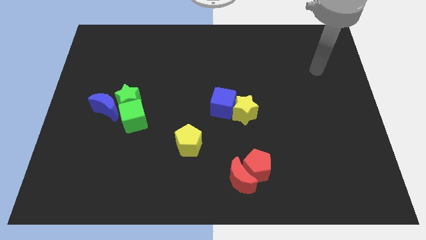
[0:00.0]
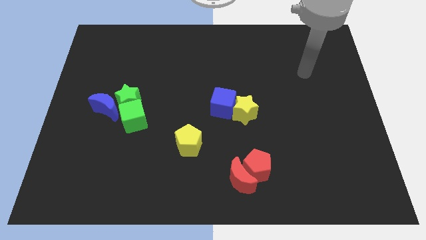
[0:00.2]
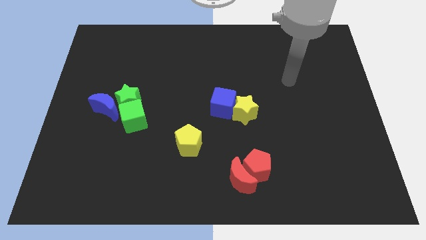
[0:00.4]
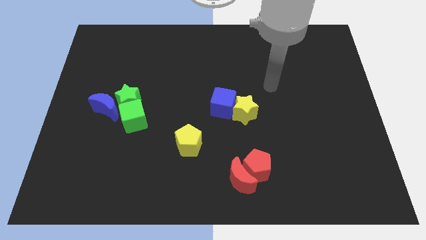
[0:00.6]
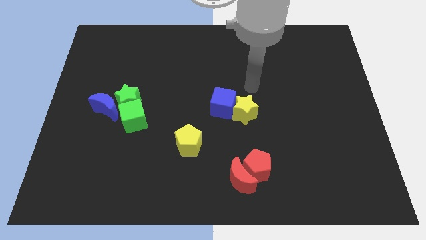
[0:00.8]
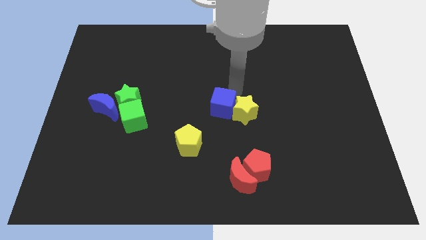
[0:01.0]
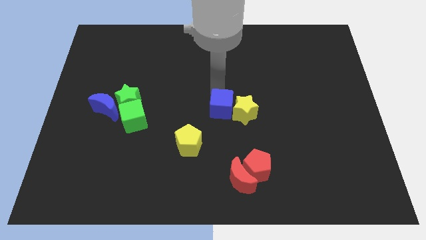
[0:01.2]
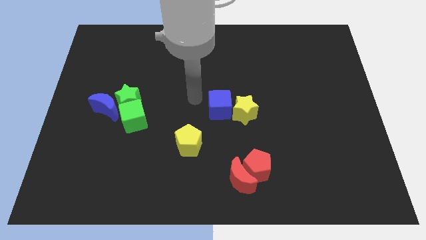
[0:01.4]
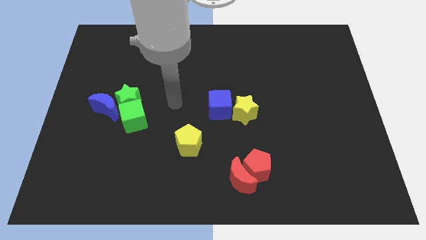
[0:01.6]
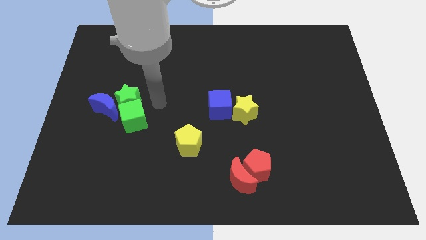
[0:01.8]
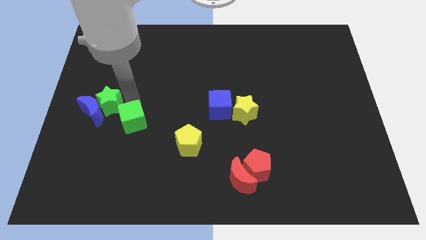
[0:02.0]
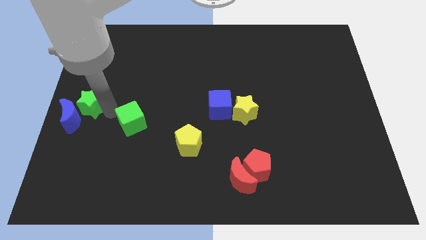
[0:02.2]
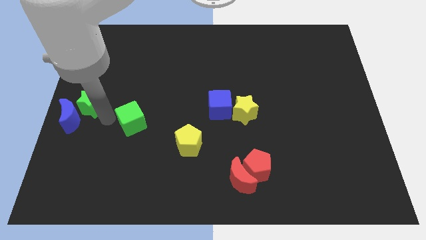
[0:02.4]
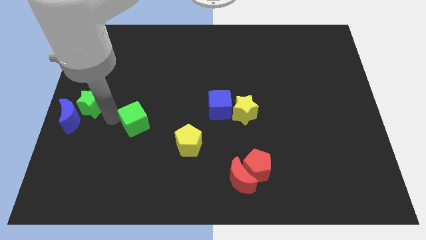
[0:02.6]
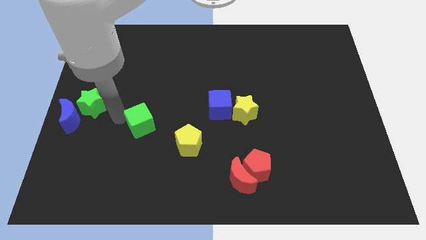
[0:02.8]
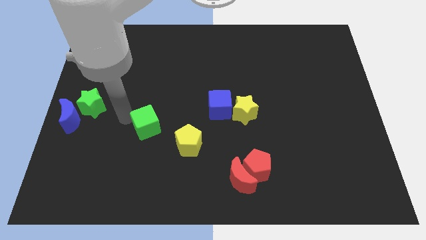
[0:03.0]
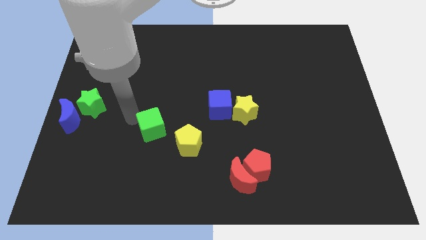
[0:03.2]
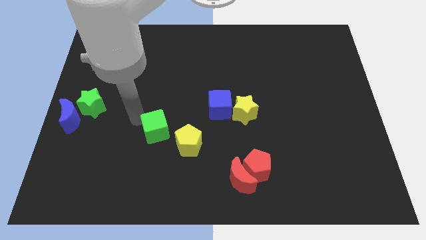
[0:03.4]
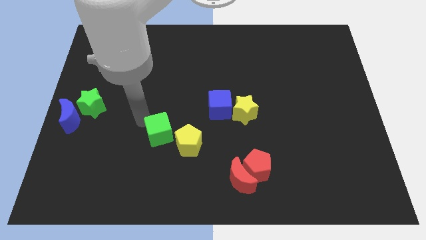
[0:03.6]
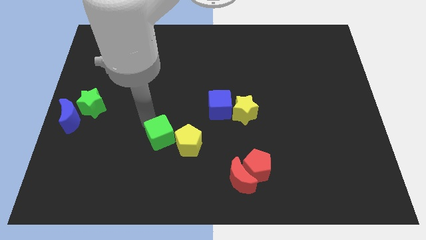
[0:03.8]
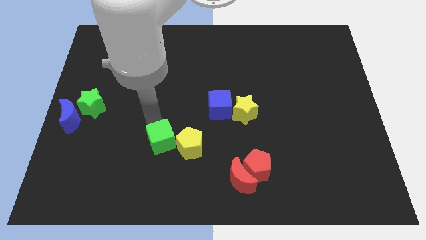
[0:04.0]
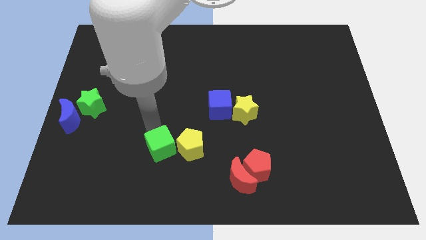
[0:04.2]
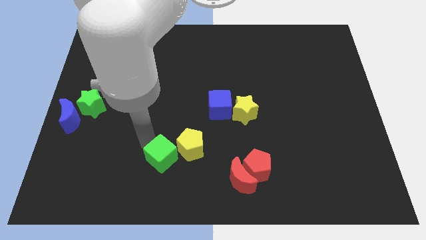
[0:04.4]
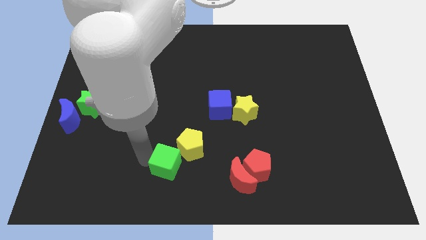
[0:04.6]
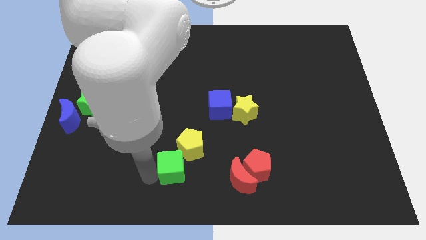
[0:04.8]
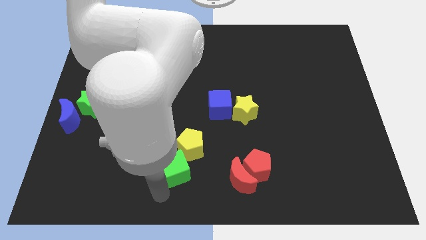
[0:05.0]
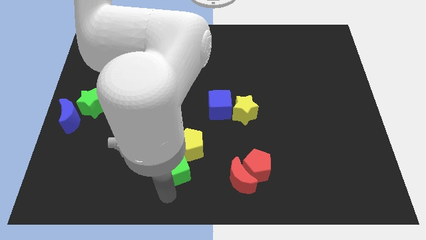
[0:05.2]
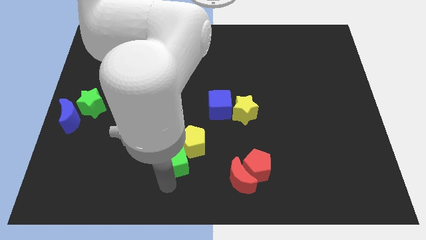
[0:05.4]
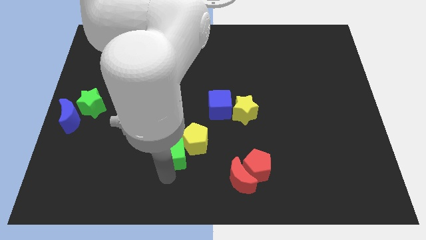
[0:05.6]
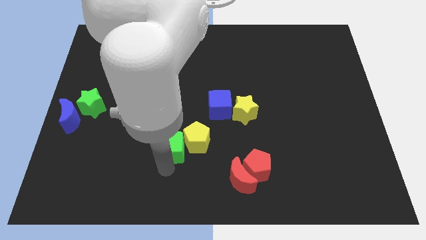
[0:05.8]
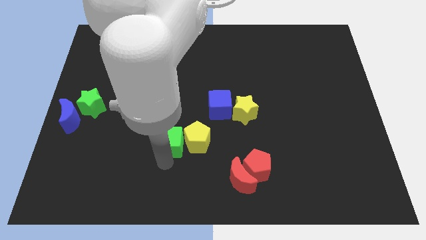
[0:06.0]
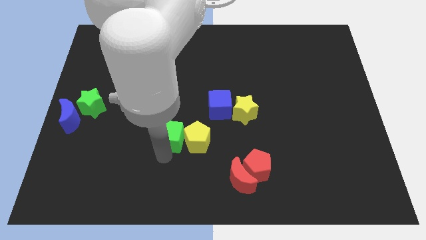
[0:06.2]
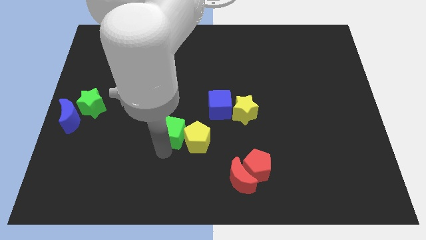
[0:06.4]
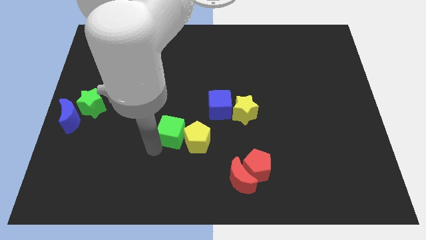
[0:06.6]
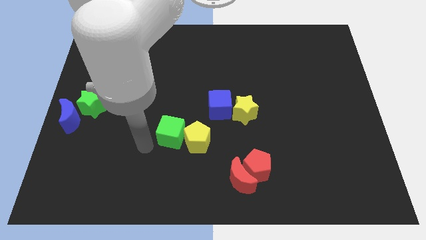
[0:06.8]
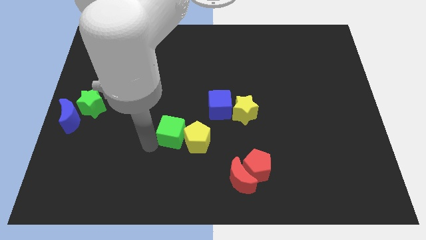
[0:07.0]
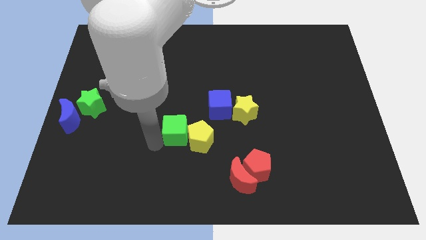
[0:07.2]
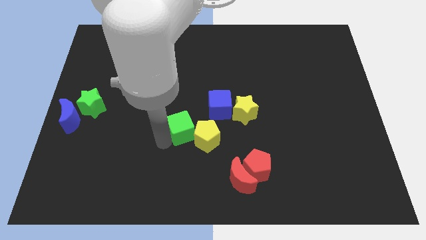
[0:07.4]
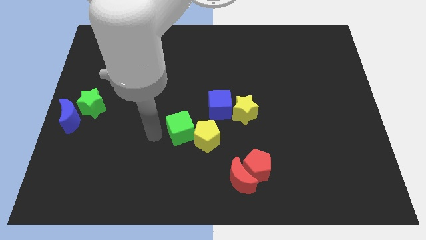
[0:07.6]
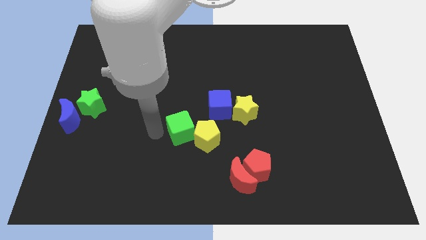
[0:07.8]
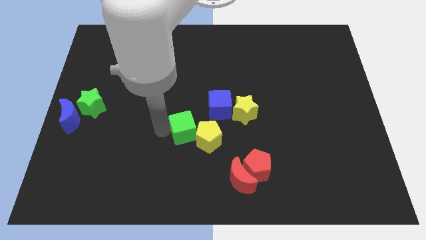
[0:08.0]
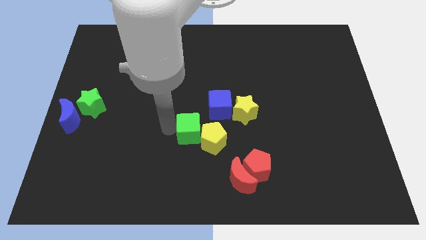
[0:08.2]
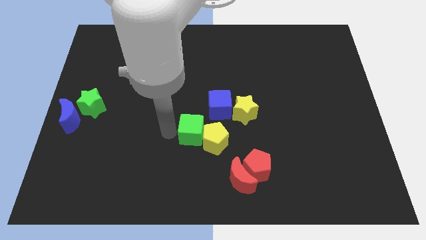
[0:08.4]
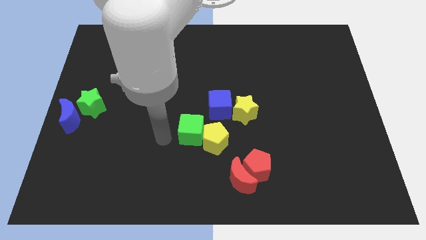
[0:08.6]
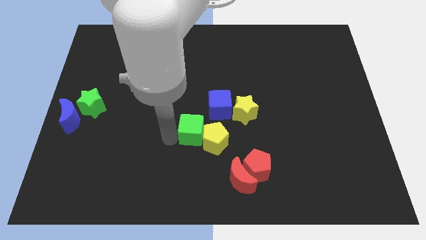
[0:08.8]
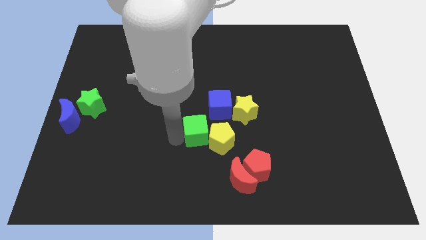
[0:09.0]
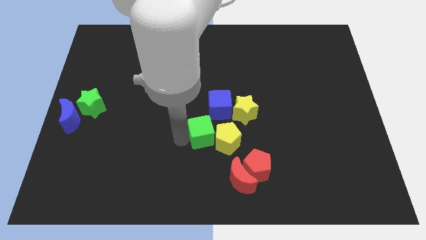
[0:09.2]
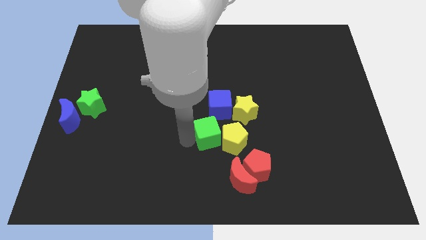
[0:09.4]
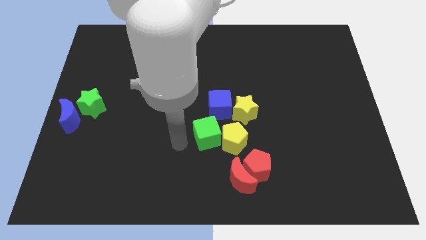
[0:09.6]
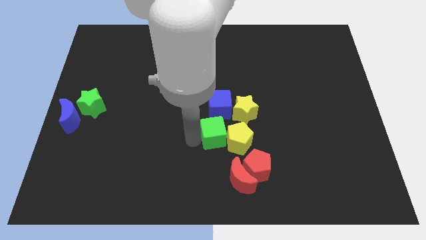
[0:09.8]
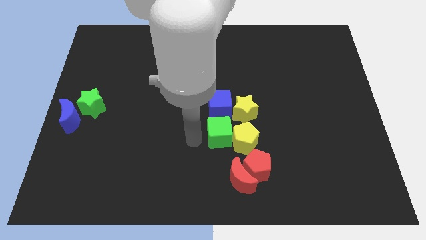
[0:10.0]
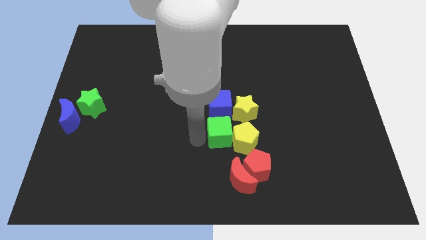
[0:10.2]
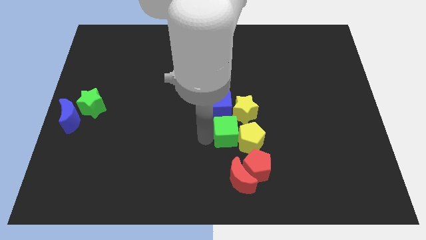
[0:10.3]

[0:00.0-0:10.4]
push the green cube right

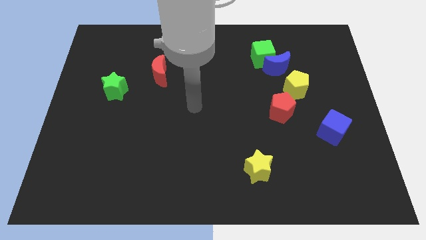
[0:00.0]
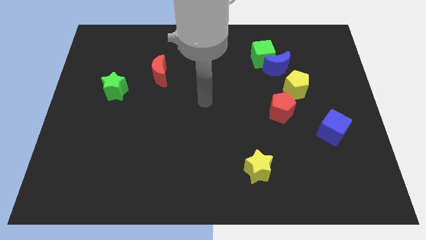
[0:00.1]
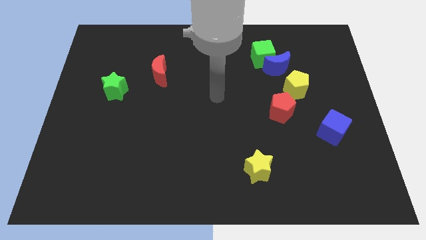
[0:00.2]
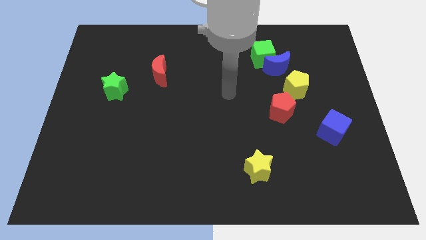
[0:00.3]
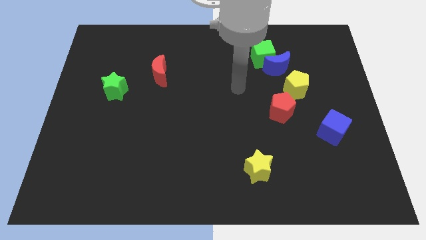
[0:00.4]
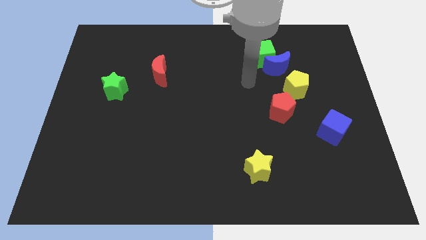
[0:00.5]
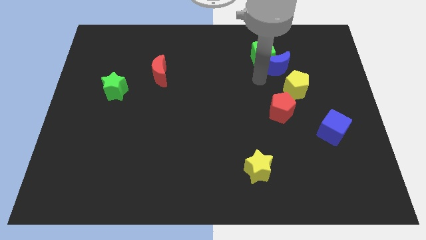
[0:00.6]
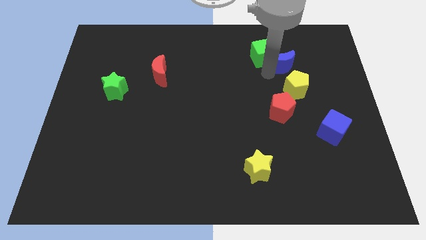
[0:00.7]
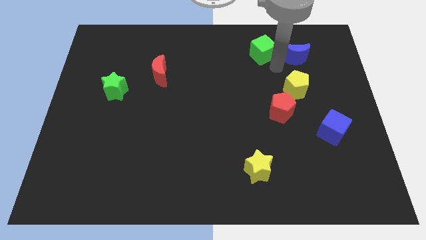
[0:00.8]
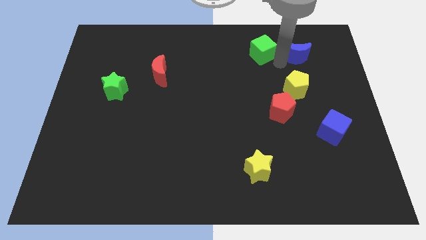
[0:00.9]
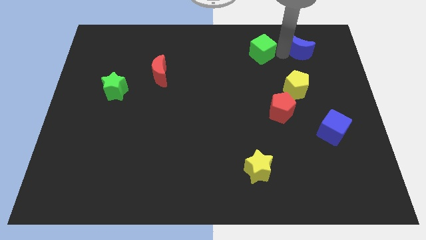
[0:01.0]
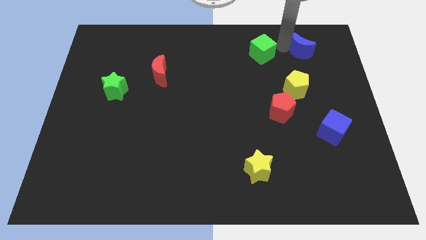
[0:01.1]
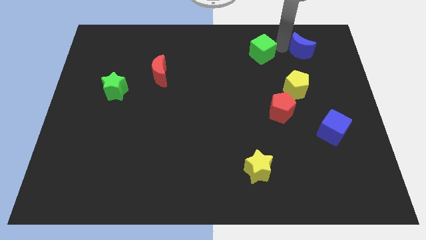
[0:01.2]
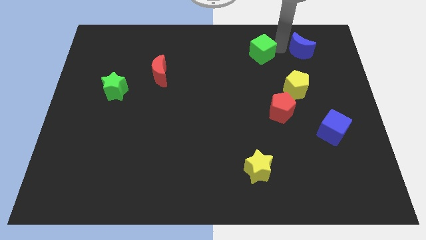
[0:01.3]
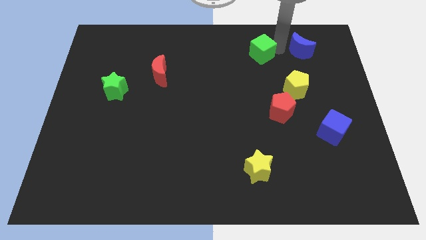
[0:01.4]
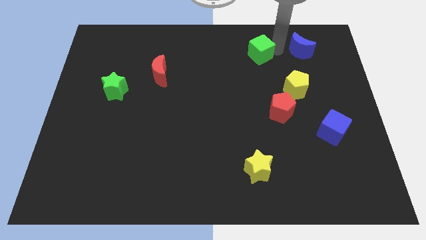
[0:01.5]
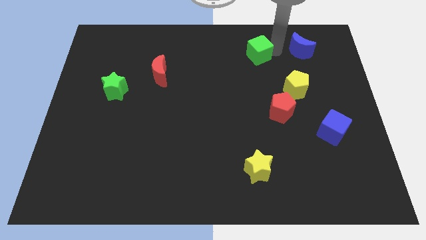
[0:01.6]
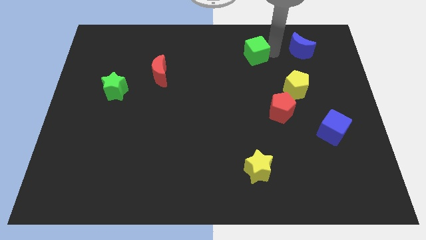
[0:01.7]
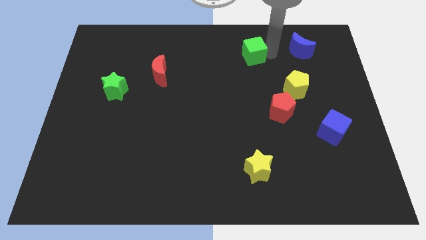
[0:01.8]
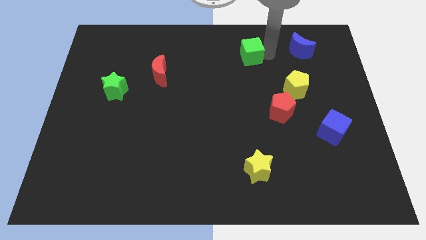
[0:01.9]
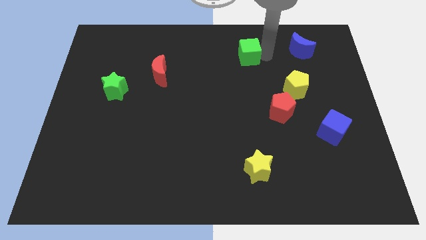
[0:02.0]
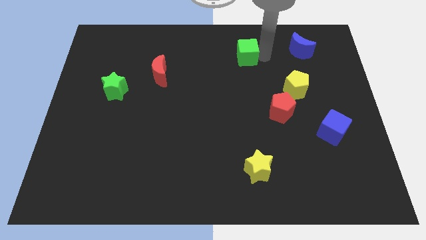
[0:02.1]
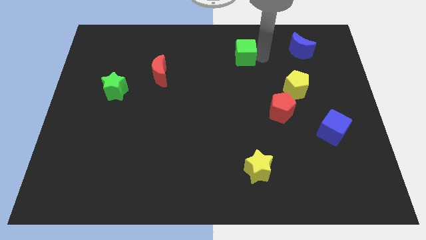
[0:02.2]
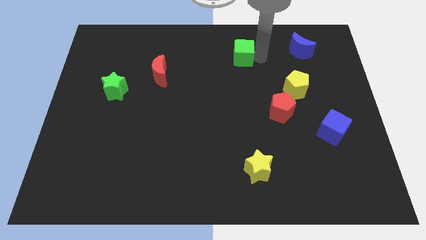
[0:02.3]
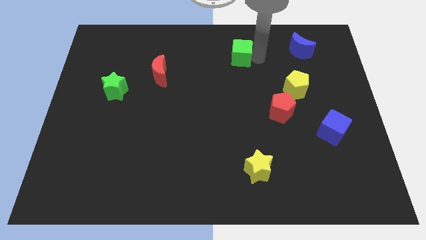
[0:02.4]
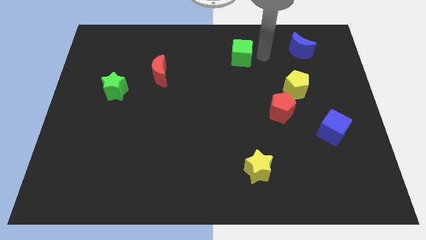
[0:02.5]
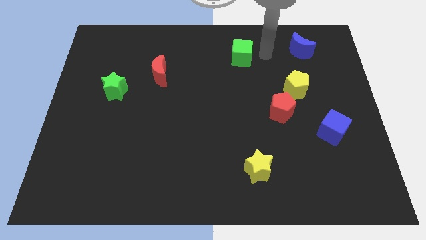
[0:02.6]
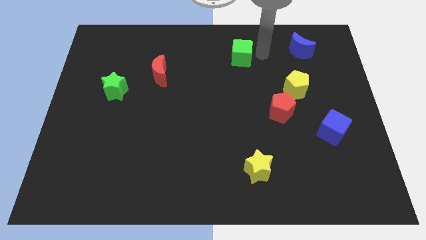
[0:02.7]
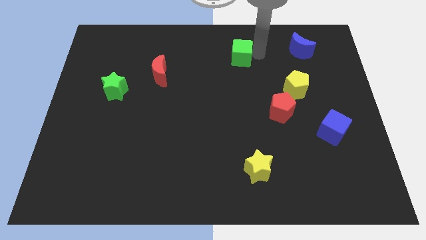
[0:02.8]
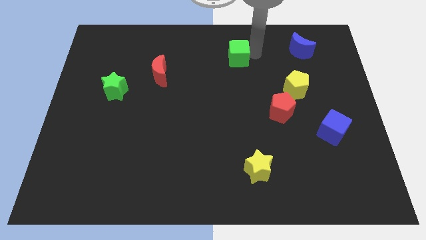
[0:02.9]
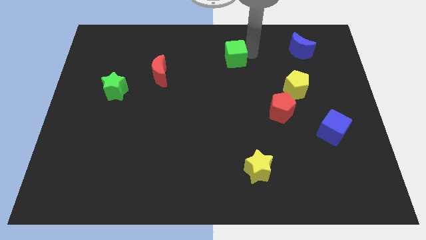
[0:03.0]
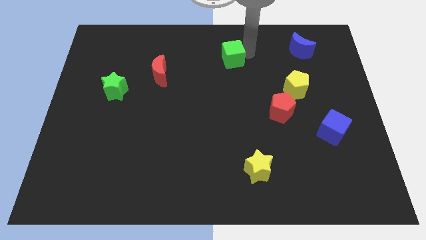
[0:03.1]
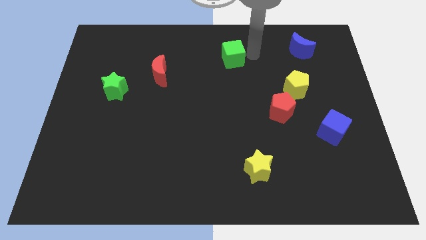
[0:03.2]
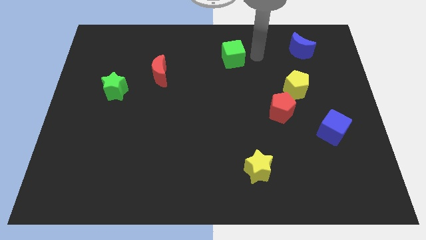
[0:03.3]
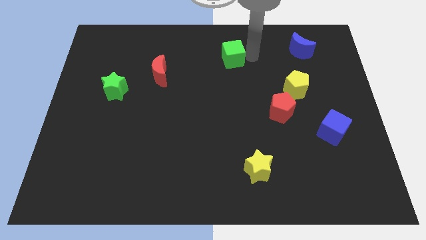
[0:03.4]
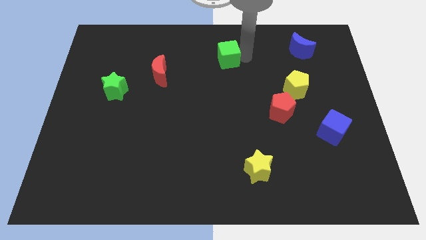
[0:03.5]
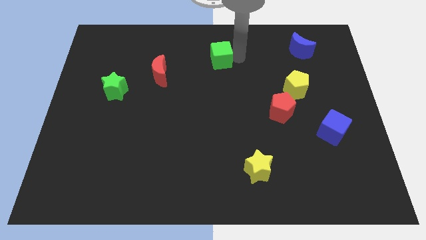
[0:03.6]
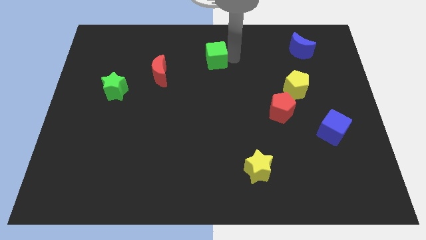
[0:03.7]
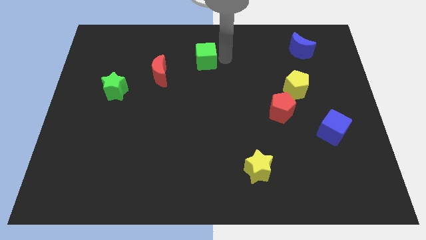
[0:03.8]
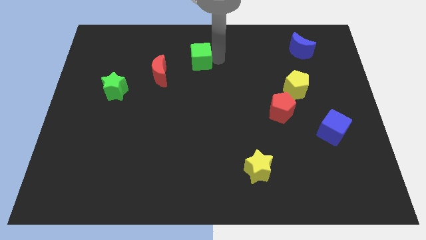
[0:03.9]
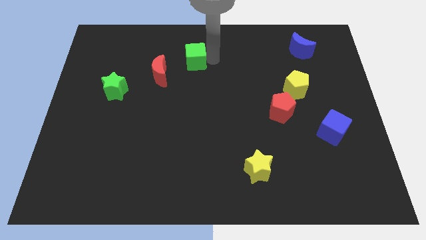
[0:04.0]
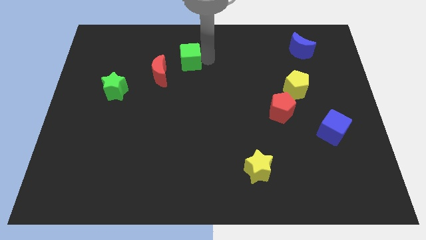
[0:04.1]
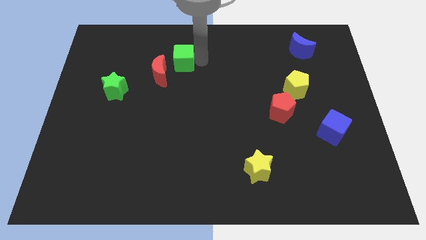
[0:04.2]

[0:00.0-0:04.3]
slide the green cube left
